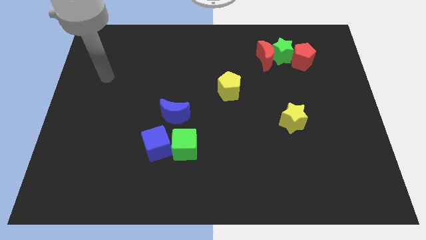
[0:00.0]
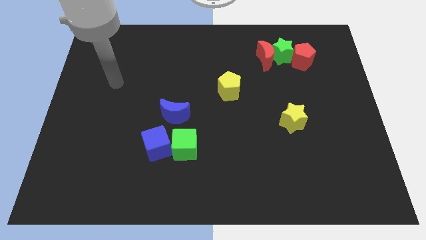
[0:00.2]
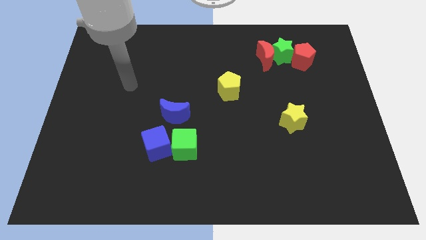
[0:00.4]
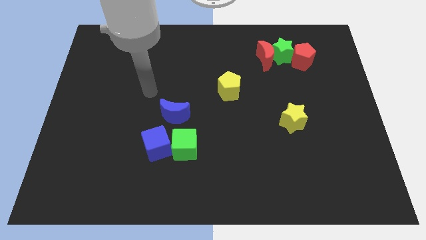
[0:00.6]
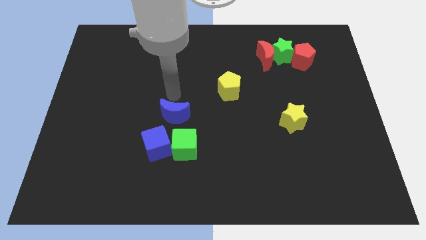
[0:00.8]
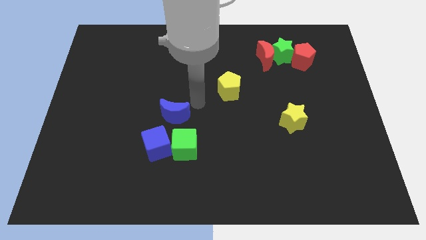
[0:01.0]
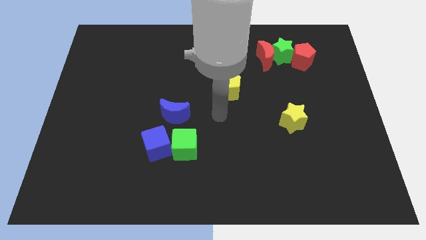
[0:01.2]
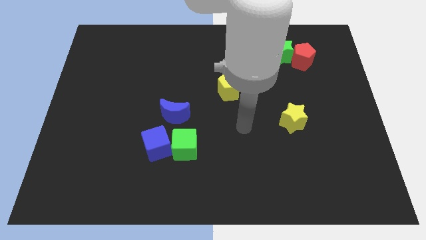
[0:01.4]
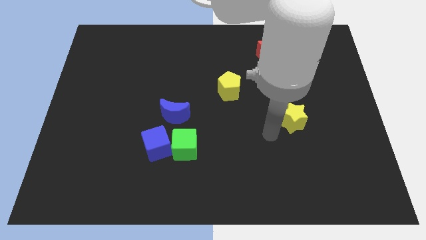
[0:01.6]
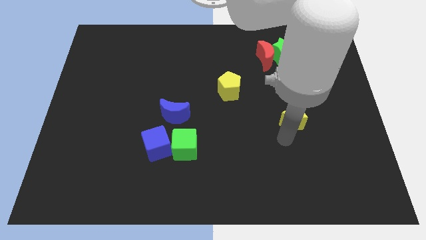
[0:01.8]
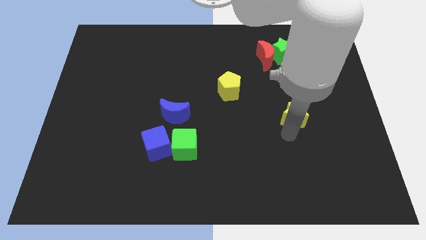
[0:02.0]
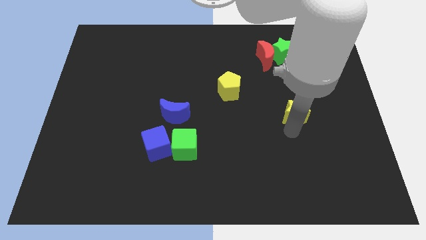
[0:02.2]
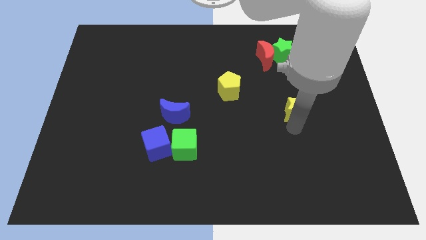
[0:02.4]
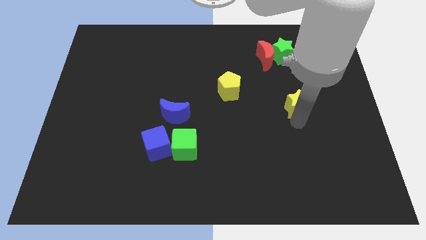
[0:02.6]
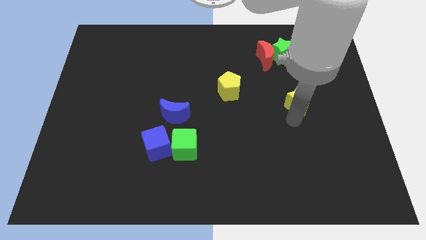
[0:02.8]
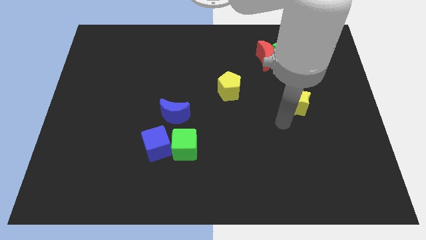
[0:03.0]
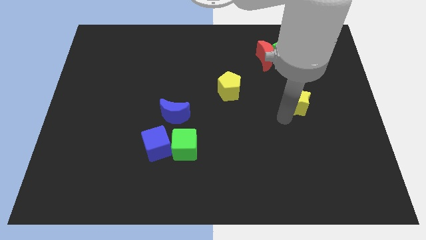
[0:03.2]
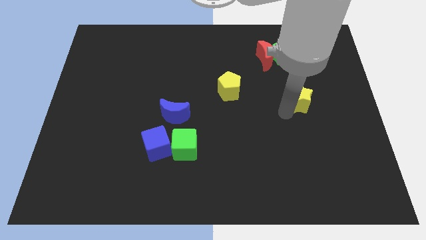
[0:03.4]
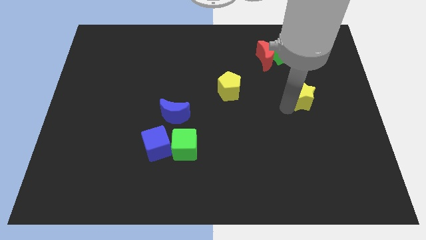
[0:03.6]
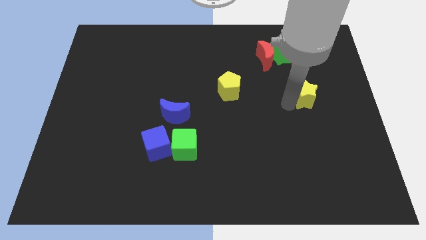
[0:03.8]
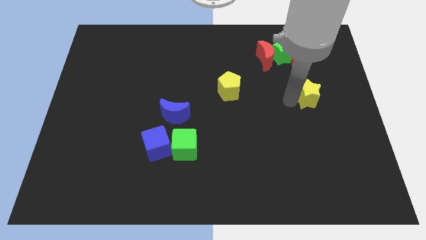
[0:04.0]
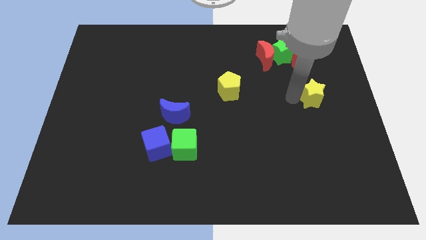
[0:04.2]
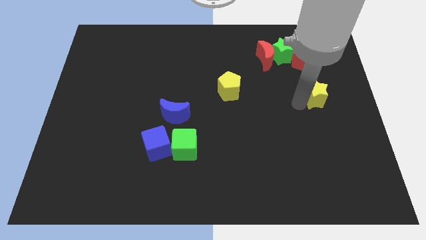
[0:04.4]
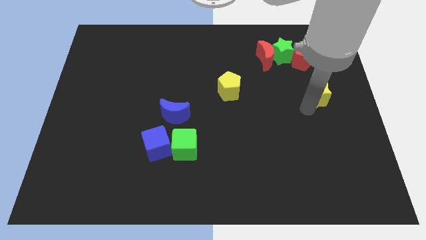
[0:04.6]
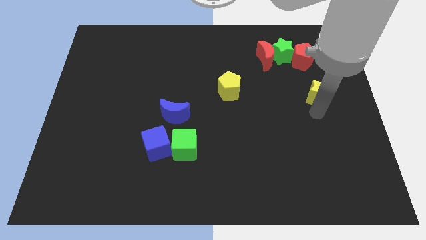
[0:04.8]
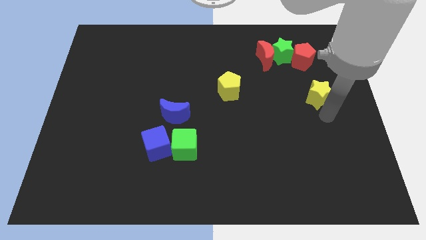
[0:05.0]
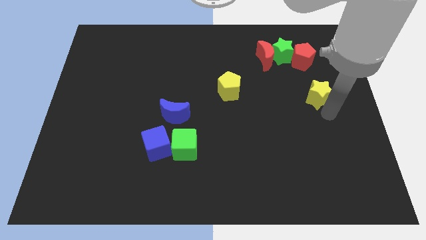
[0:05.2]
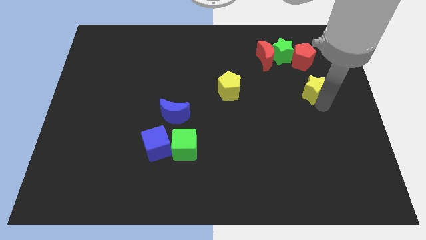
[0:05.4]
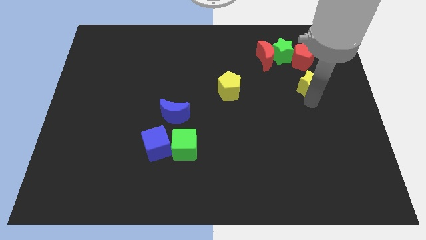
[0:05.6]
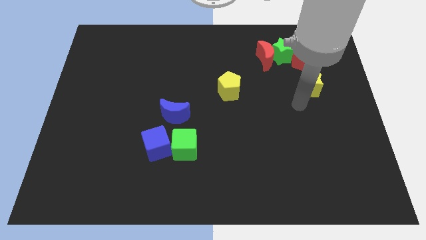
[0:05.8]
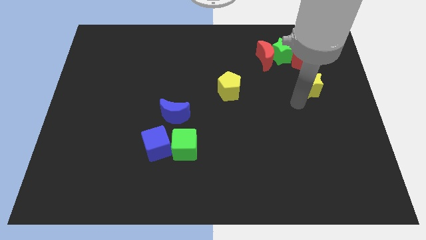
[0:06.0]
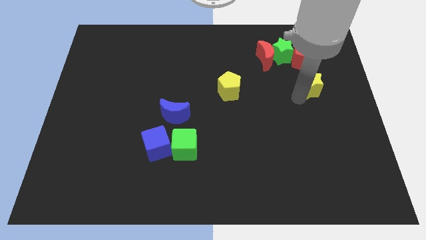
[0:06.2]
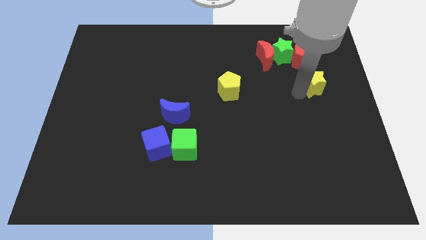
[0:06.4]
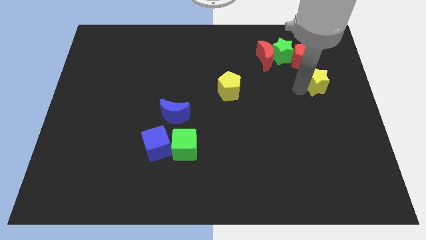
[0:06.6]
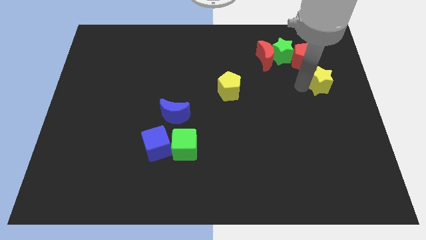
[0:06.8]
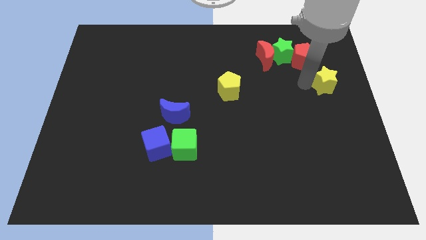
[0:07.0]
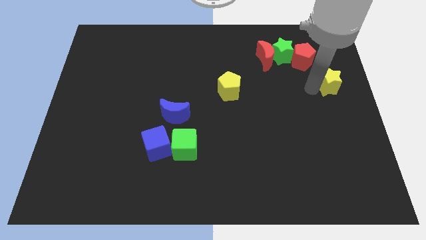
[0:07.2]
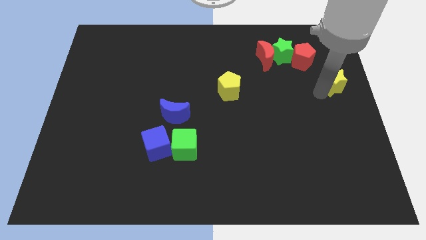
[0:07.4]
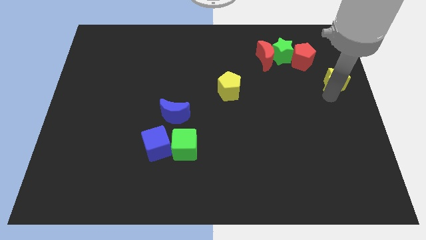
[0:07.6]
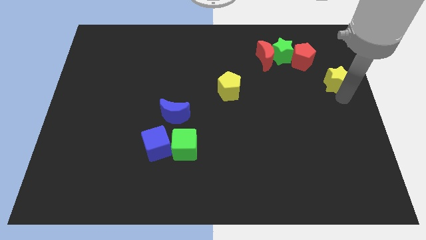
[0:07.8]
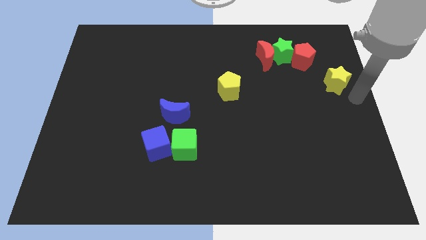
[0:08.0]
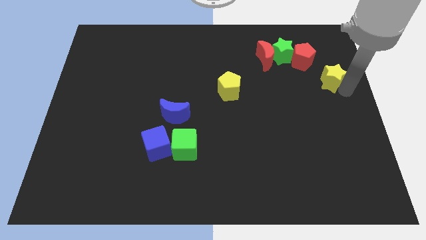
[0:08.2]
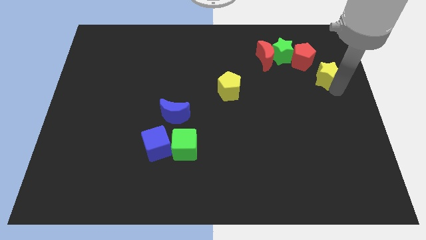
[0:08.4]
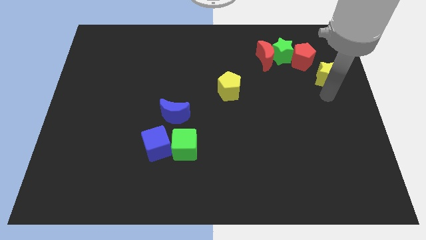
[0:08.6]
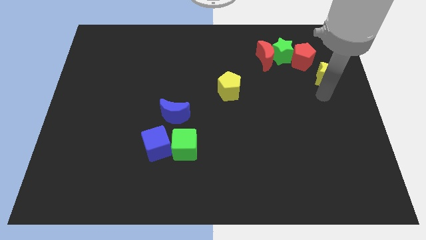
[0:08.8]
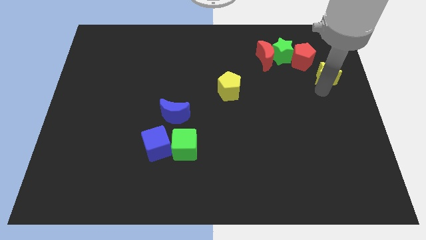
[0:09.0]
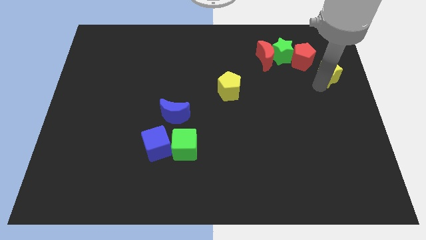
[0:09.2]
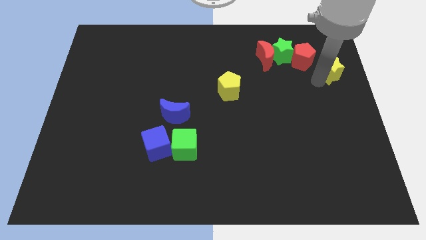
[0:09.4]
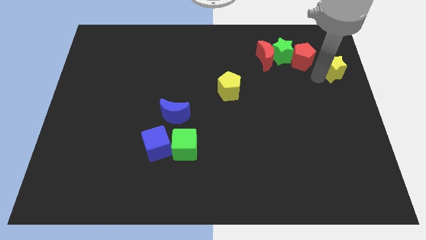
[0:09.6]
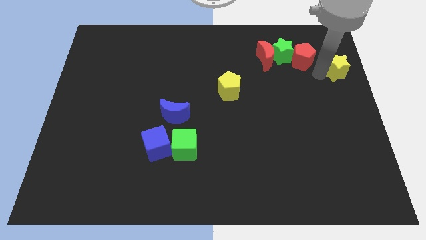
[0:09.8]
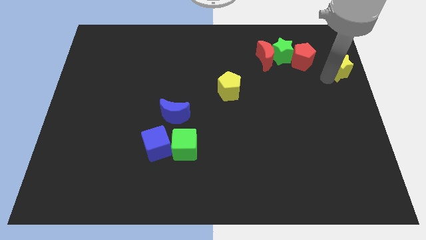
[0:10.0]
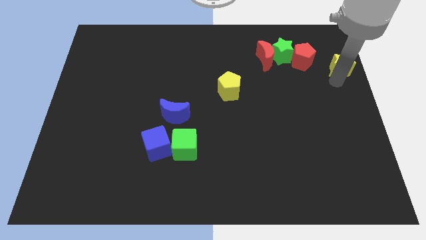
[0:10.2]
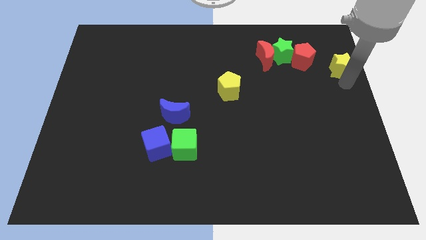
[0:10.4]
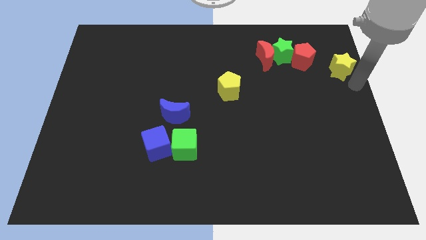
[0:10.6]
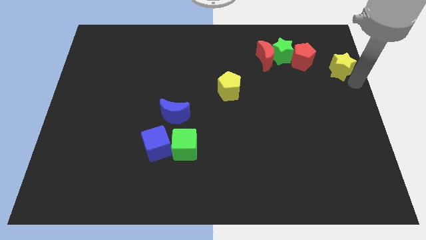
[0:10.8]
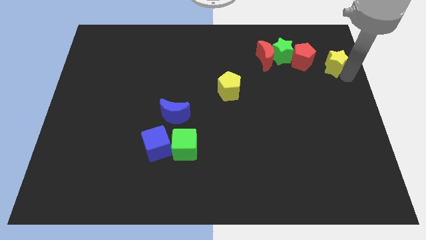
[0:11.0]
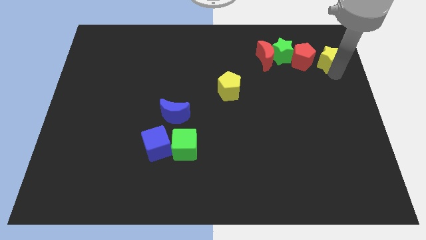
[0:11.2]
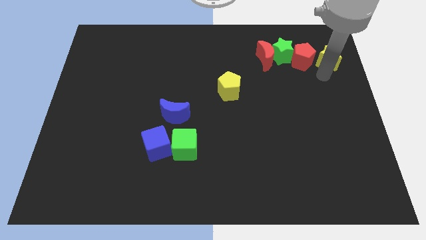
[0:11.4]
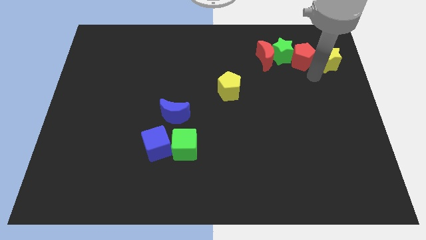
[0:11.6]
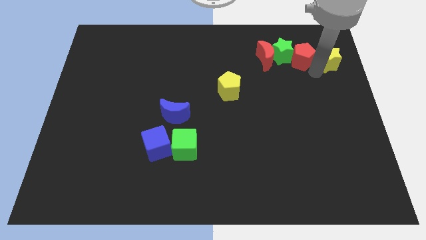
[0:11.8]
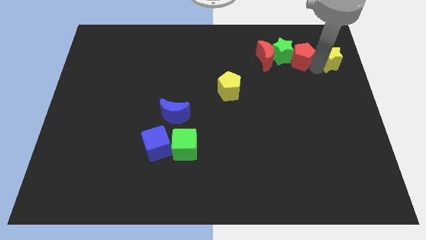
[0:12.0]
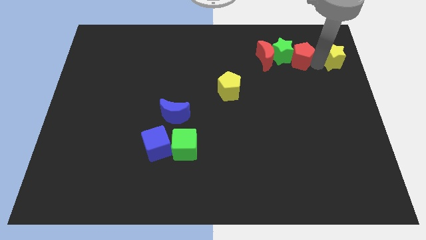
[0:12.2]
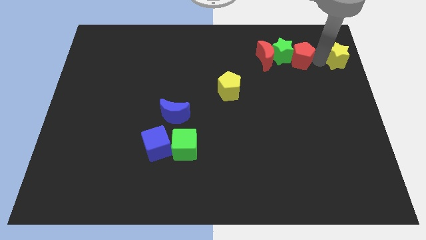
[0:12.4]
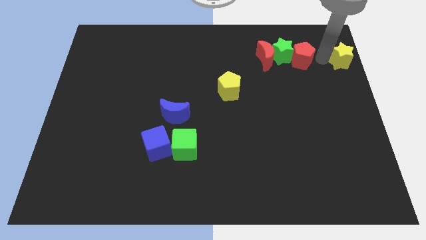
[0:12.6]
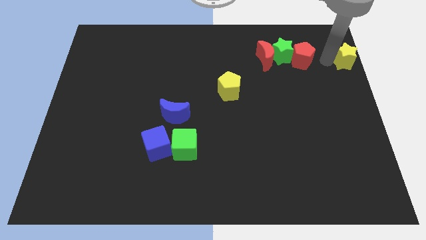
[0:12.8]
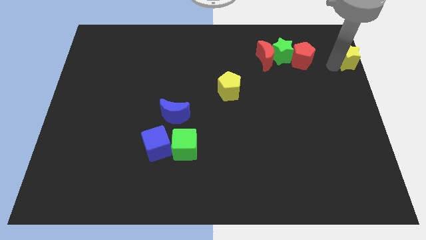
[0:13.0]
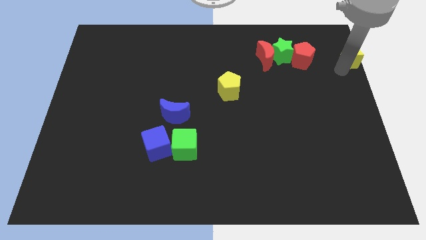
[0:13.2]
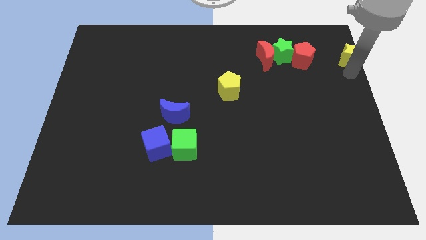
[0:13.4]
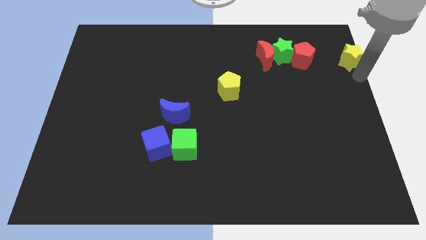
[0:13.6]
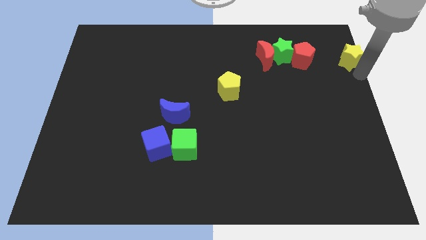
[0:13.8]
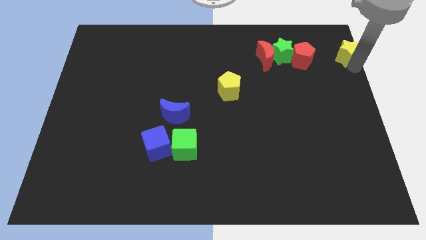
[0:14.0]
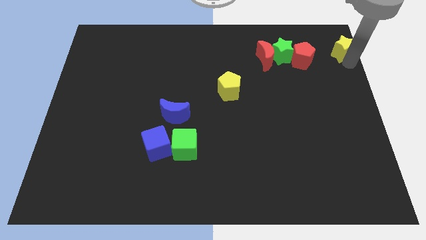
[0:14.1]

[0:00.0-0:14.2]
put the yellow star to the top right corner
